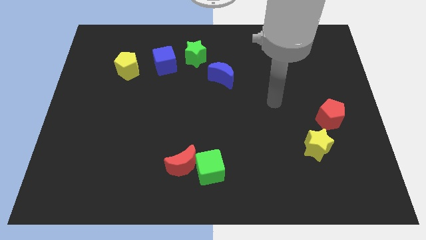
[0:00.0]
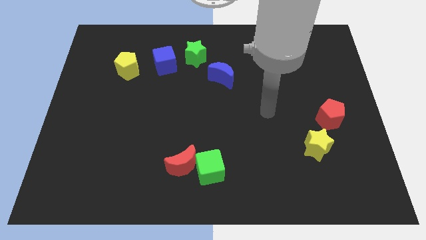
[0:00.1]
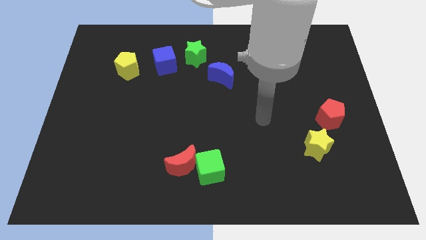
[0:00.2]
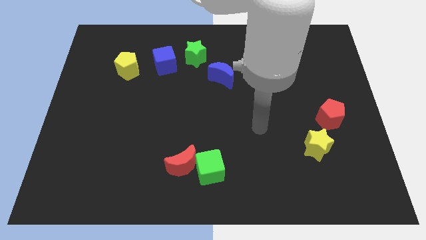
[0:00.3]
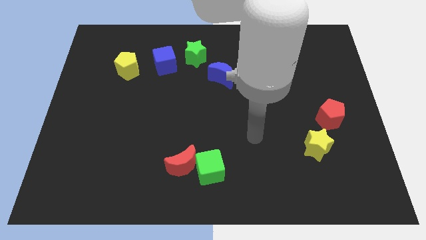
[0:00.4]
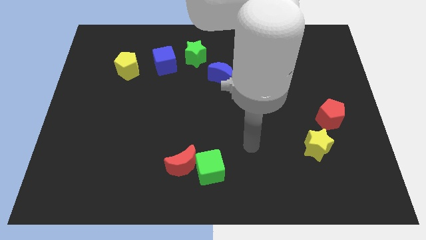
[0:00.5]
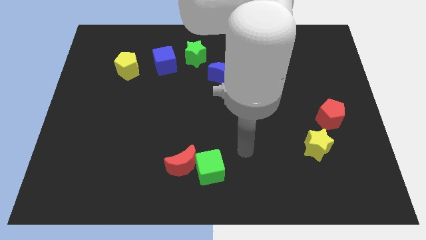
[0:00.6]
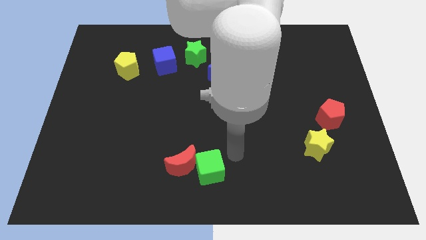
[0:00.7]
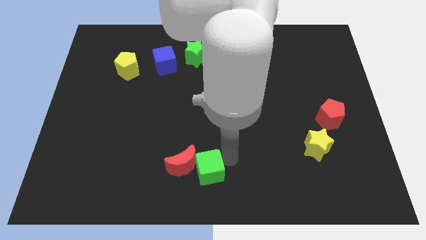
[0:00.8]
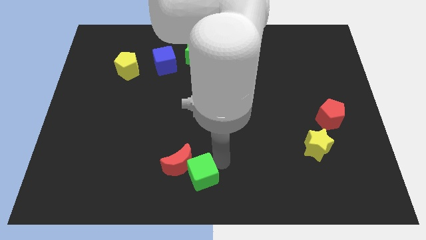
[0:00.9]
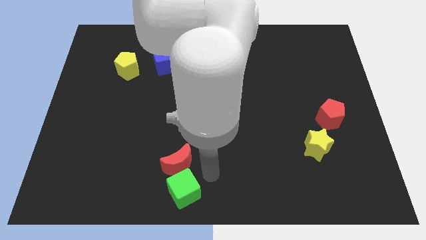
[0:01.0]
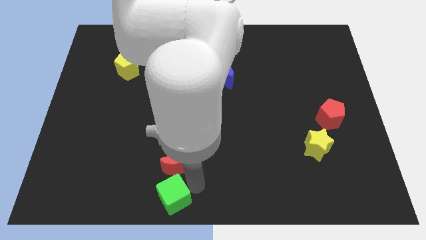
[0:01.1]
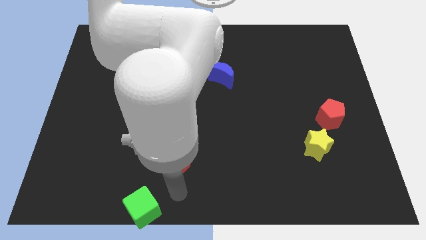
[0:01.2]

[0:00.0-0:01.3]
separate the red moon from the green cube

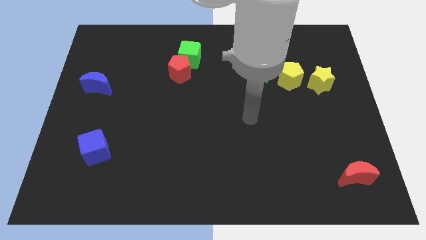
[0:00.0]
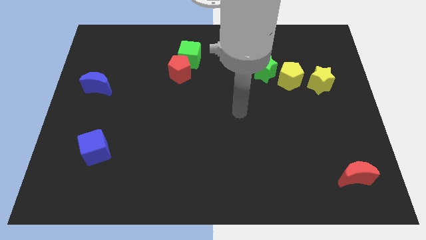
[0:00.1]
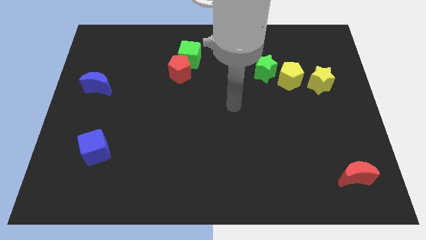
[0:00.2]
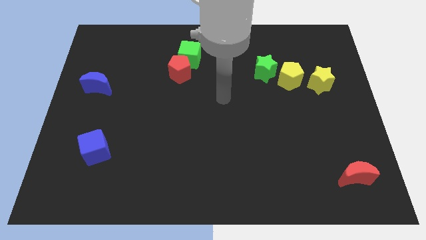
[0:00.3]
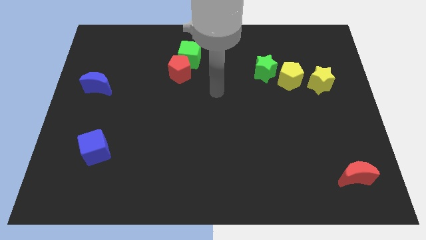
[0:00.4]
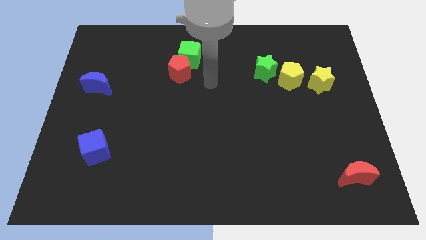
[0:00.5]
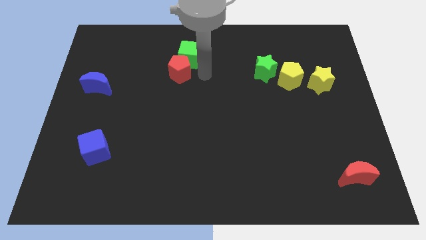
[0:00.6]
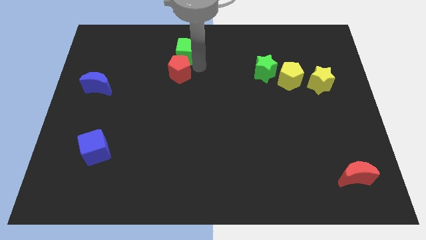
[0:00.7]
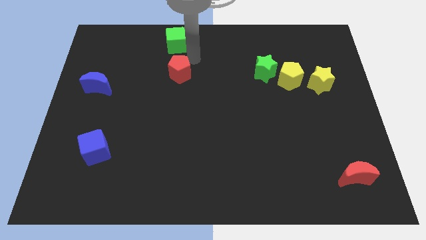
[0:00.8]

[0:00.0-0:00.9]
pull the red pentagon apart from the green cube

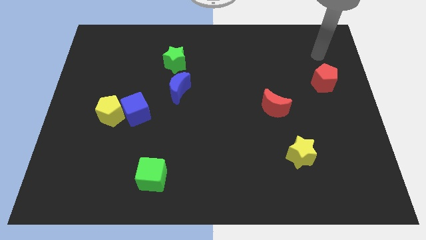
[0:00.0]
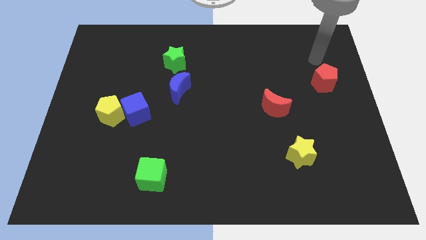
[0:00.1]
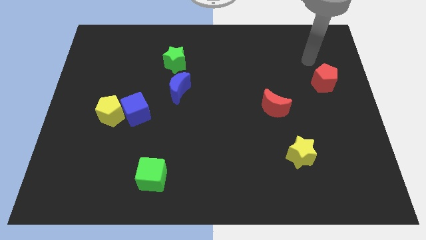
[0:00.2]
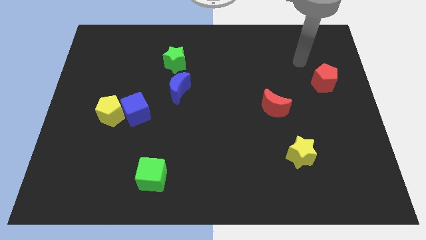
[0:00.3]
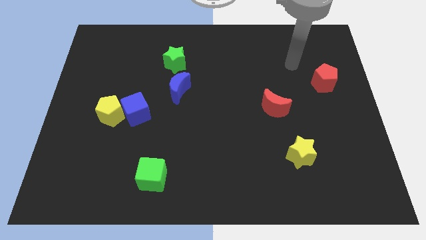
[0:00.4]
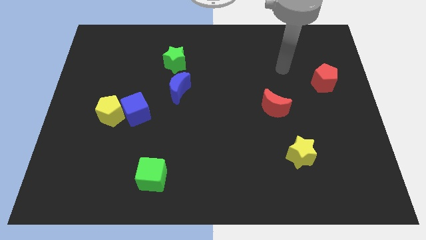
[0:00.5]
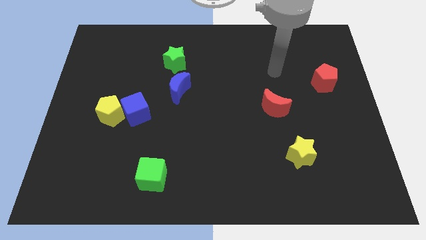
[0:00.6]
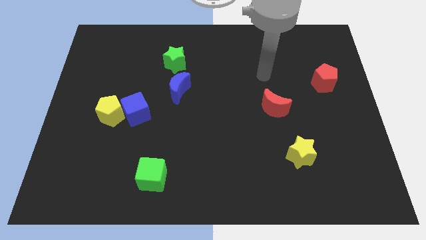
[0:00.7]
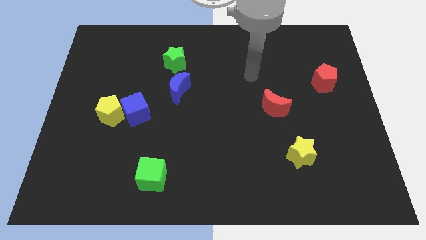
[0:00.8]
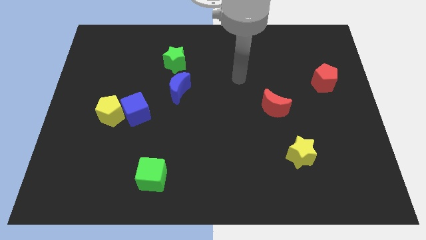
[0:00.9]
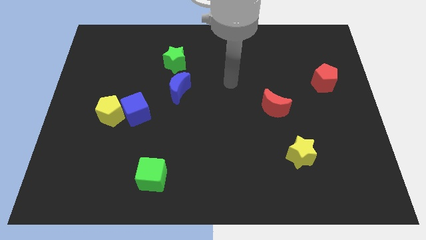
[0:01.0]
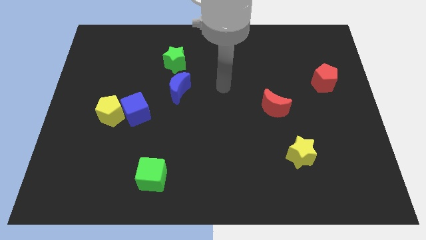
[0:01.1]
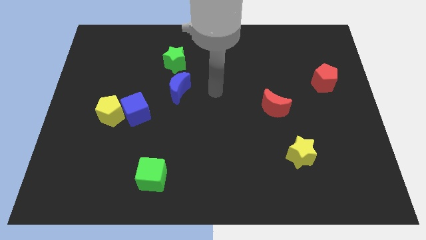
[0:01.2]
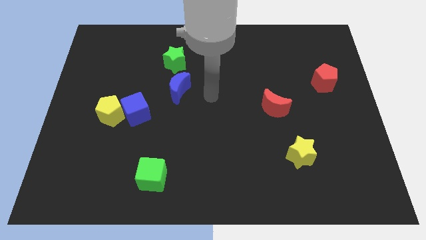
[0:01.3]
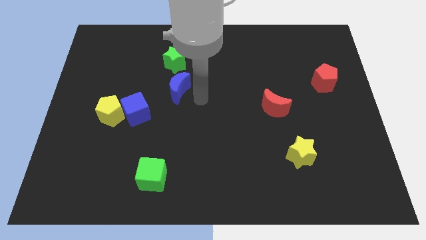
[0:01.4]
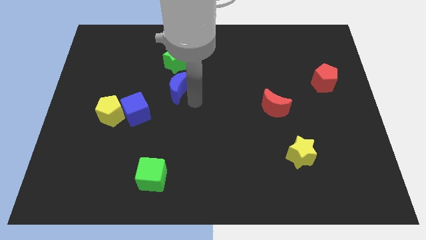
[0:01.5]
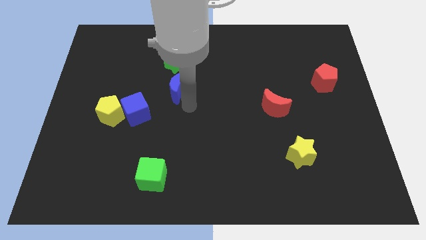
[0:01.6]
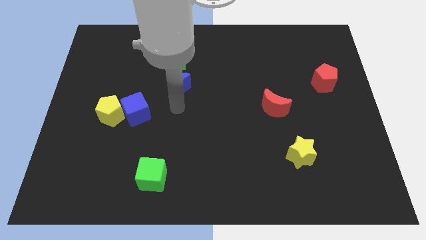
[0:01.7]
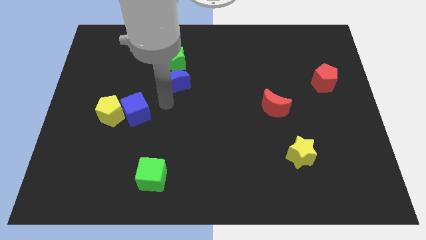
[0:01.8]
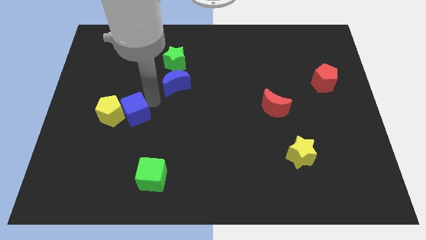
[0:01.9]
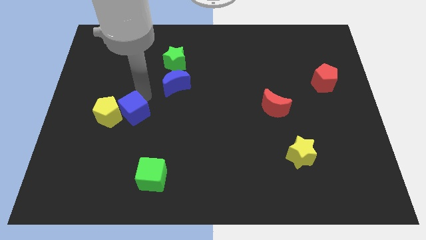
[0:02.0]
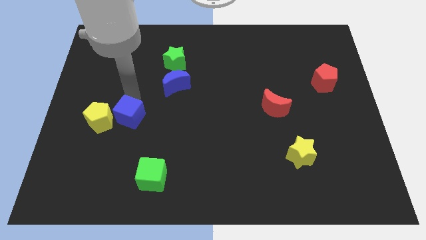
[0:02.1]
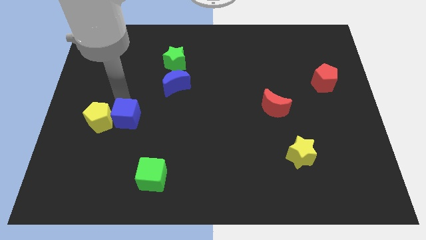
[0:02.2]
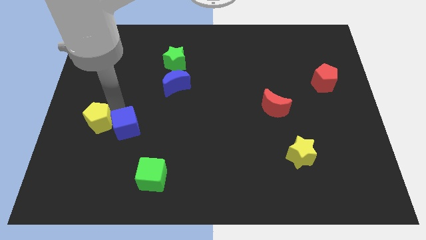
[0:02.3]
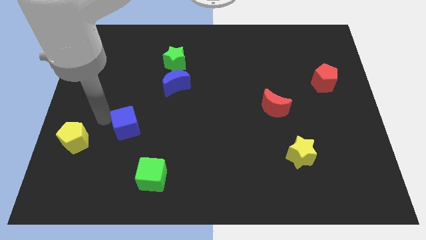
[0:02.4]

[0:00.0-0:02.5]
separate the blue cube from the yellow pentagon

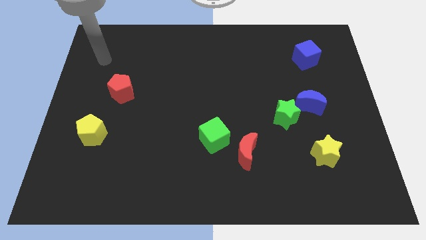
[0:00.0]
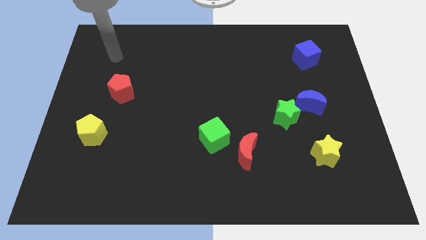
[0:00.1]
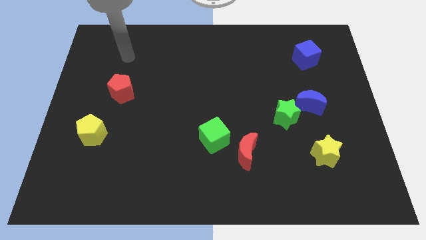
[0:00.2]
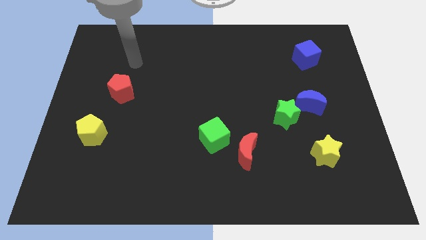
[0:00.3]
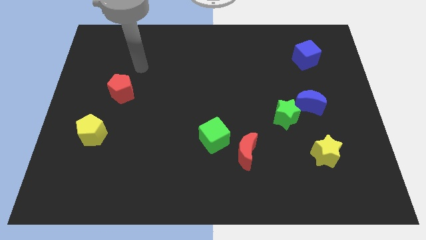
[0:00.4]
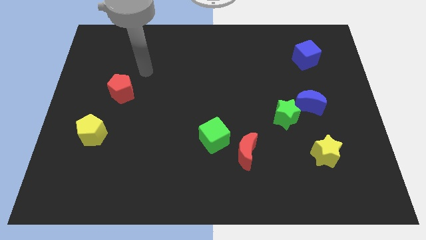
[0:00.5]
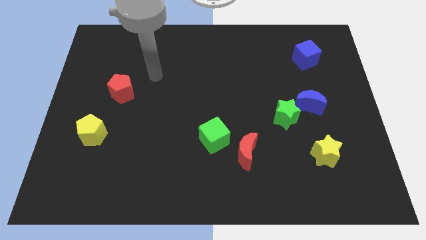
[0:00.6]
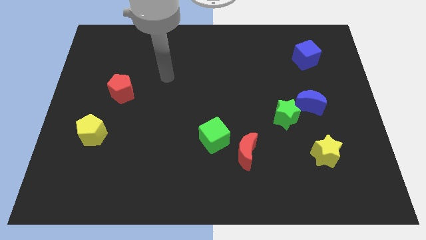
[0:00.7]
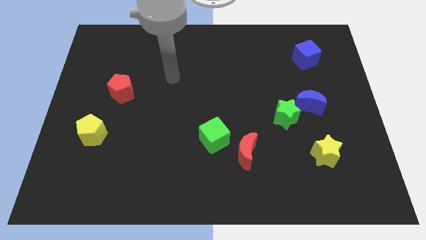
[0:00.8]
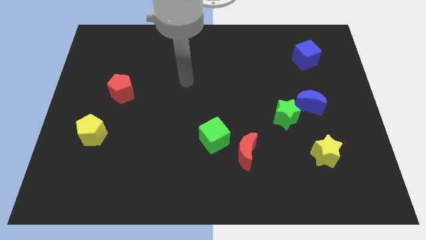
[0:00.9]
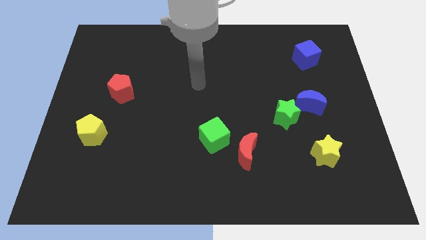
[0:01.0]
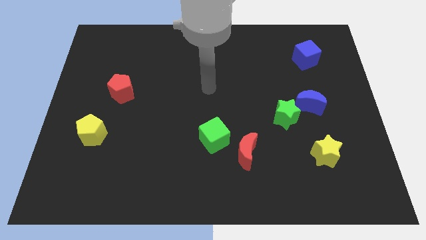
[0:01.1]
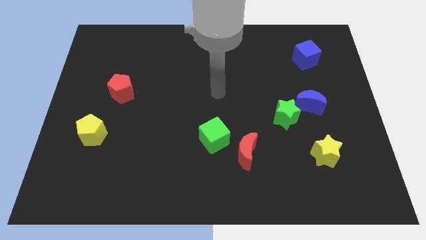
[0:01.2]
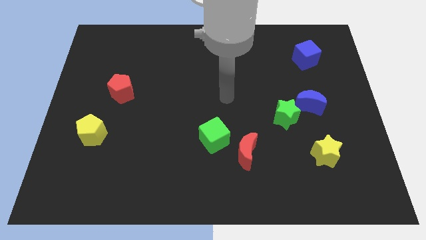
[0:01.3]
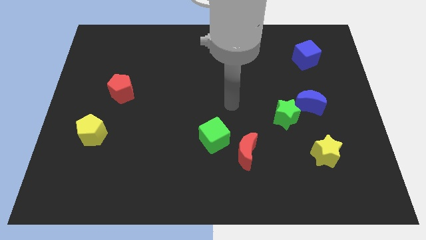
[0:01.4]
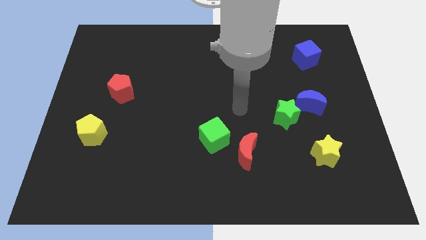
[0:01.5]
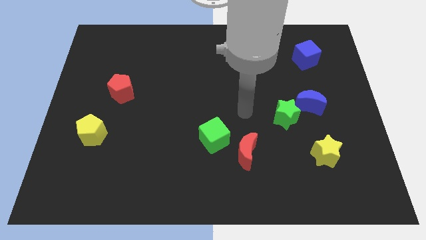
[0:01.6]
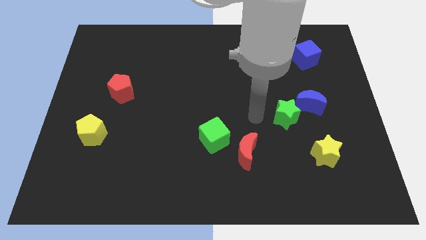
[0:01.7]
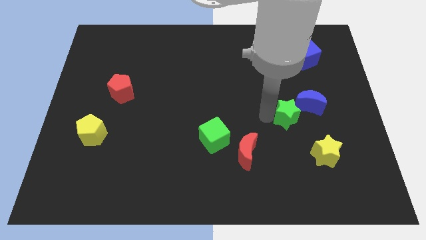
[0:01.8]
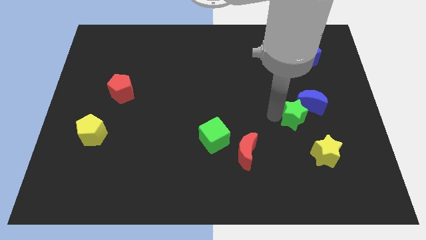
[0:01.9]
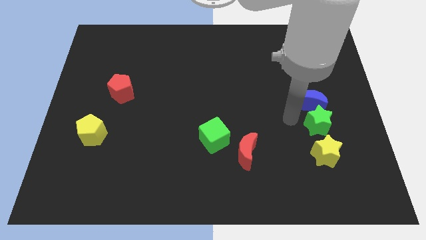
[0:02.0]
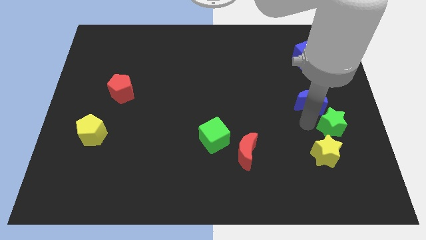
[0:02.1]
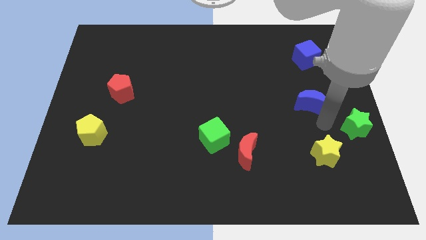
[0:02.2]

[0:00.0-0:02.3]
move the blue moon away from the green star

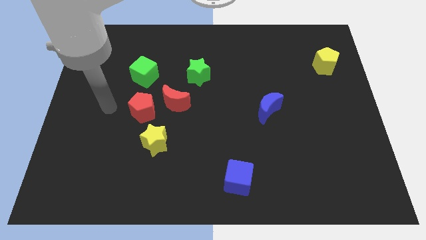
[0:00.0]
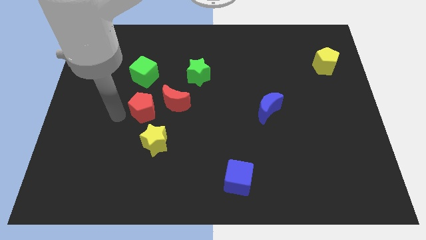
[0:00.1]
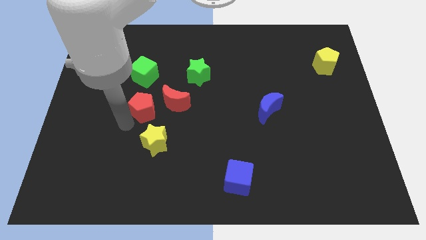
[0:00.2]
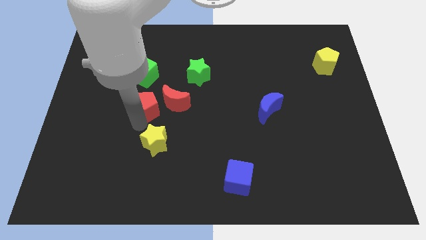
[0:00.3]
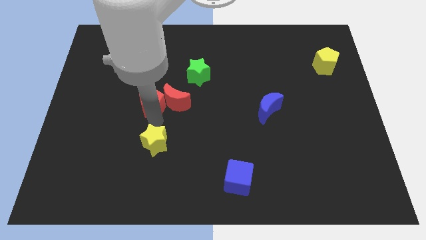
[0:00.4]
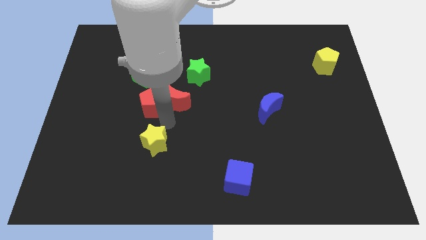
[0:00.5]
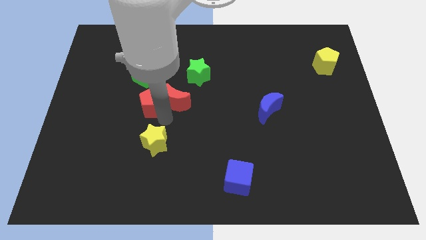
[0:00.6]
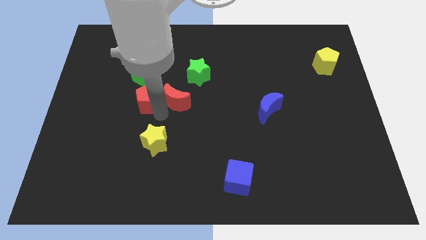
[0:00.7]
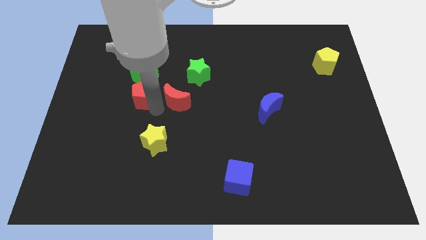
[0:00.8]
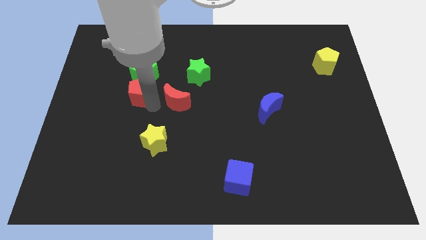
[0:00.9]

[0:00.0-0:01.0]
move the red pentagon away from the red moon and yellow star

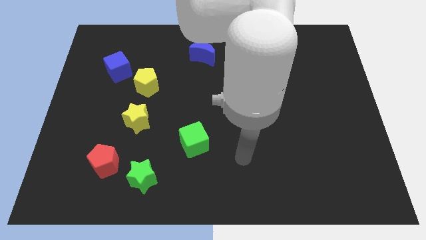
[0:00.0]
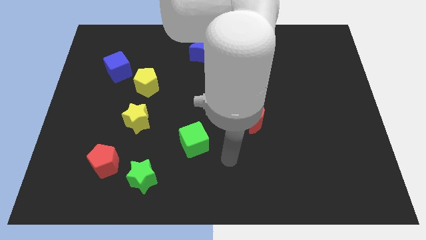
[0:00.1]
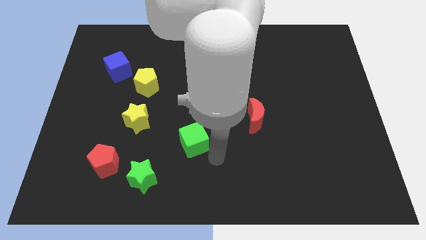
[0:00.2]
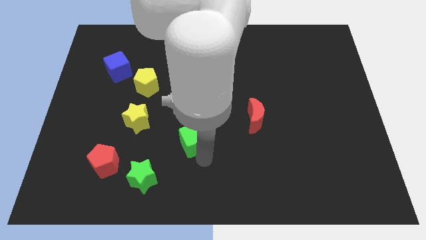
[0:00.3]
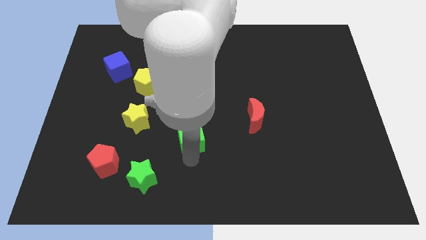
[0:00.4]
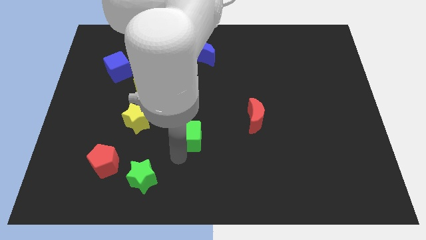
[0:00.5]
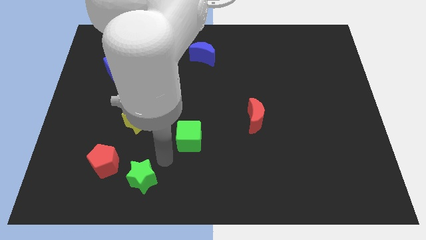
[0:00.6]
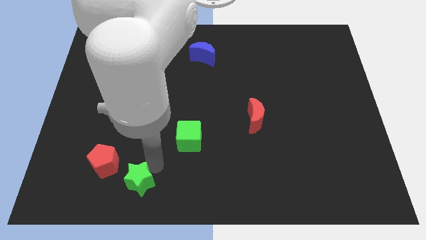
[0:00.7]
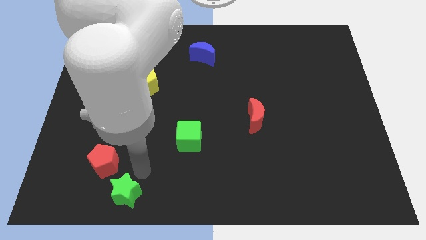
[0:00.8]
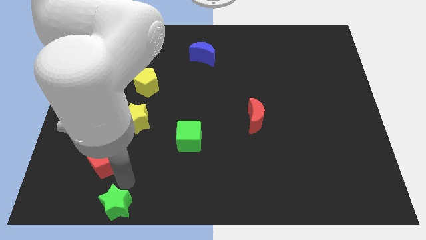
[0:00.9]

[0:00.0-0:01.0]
move the red pentagon away from the green star

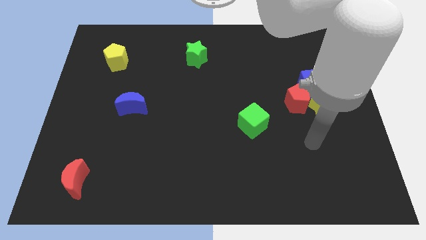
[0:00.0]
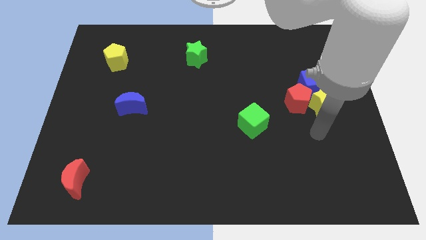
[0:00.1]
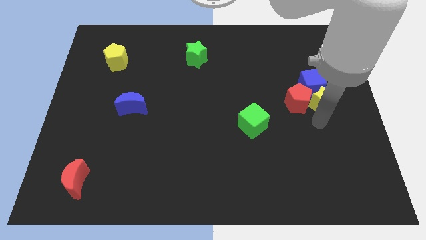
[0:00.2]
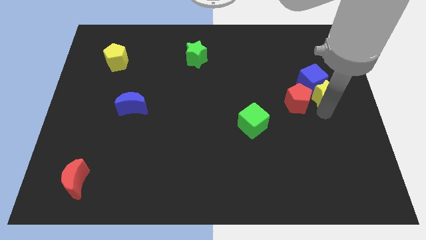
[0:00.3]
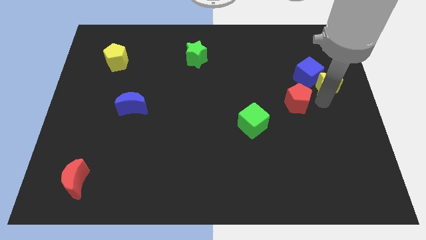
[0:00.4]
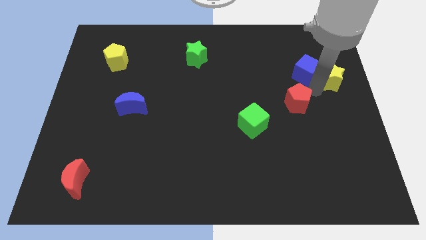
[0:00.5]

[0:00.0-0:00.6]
move the red pentagon away from the yellow star and blue cube
